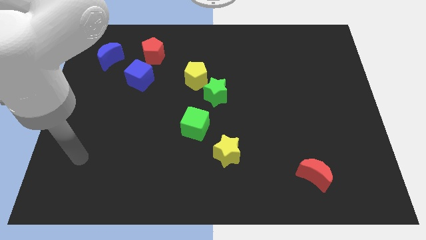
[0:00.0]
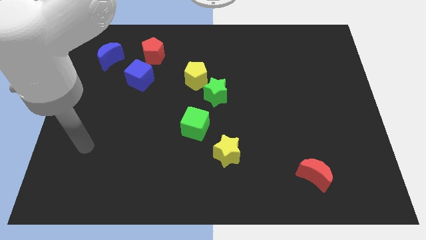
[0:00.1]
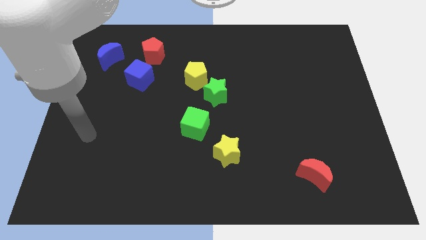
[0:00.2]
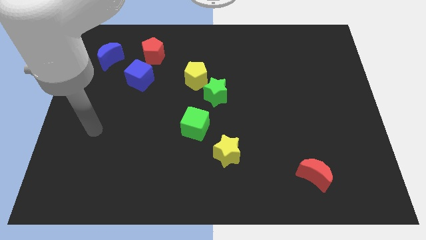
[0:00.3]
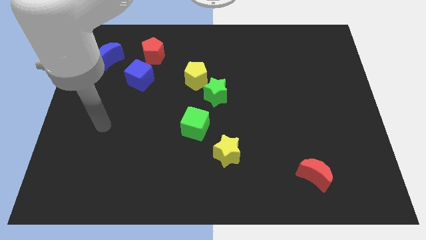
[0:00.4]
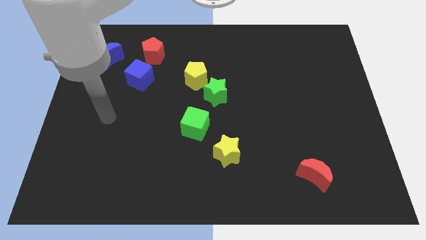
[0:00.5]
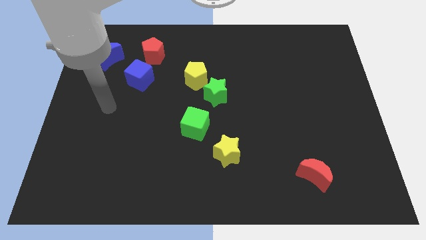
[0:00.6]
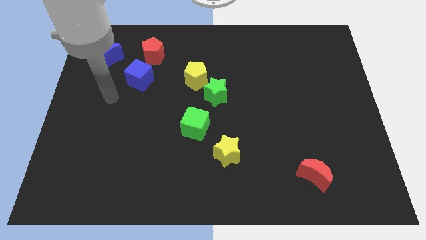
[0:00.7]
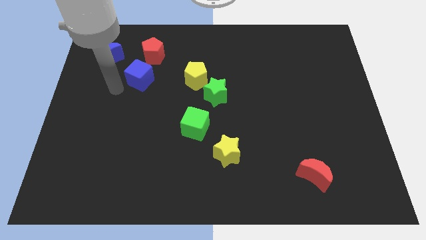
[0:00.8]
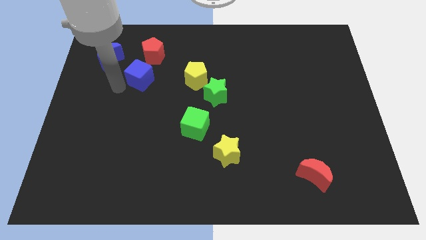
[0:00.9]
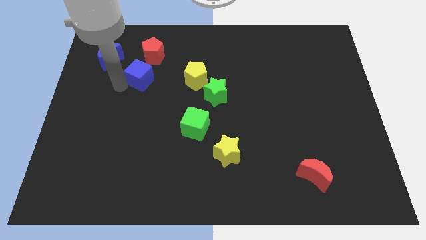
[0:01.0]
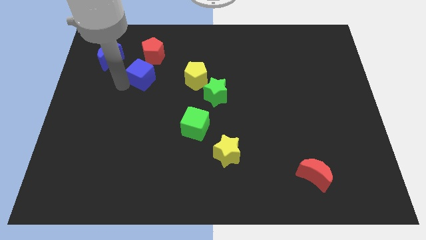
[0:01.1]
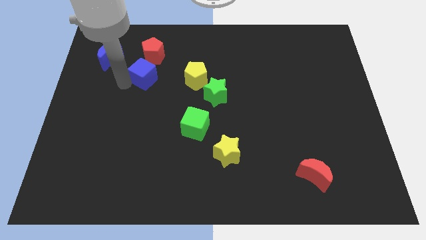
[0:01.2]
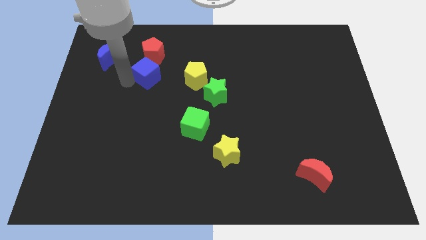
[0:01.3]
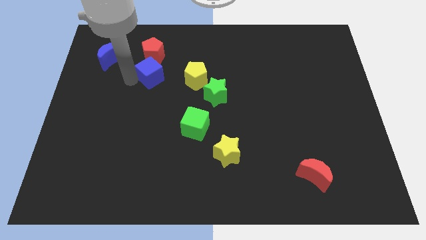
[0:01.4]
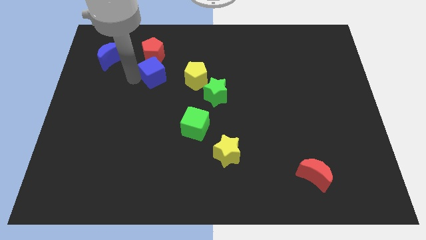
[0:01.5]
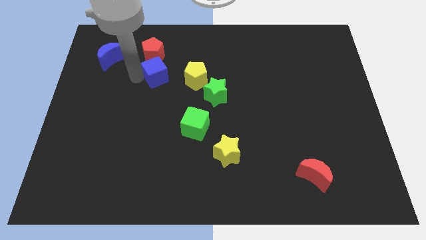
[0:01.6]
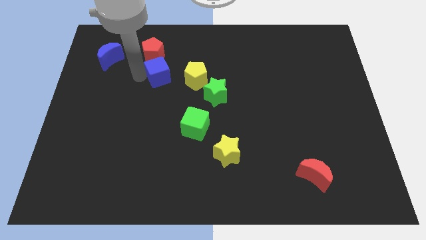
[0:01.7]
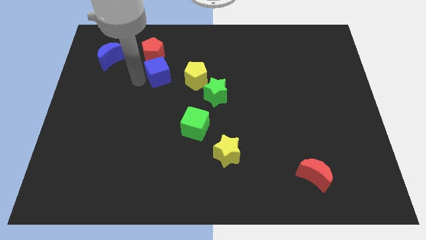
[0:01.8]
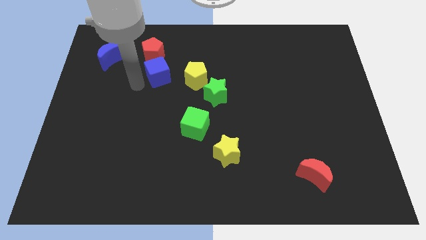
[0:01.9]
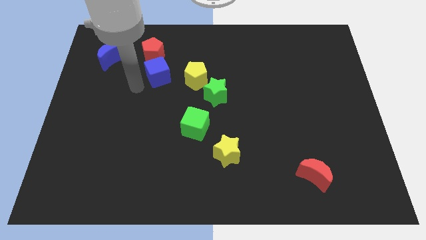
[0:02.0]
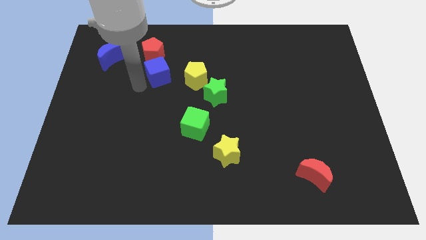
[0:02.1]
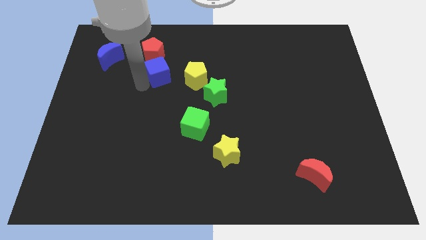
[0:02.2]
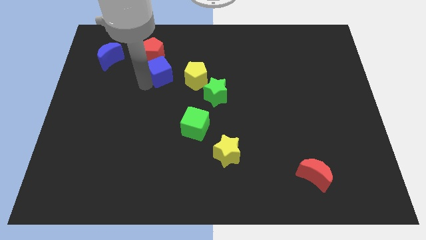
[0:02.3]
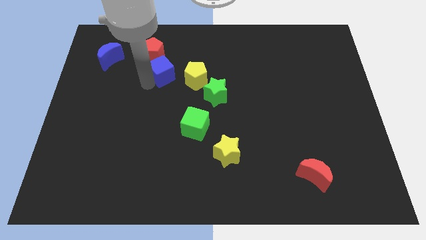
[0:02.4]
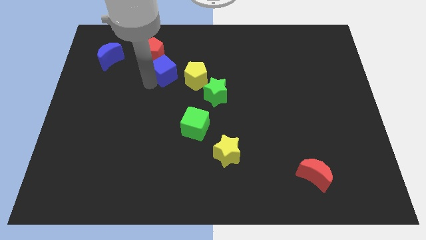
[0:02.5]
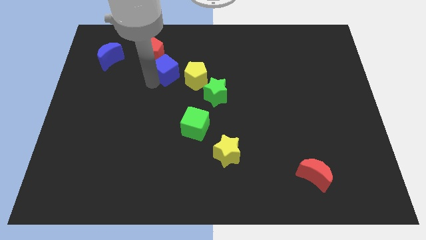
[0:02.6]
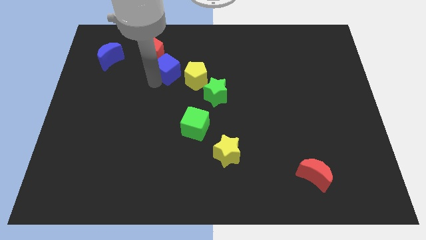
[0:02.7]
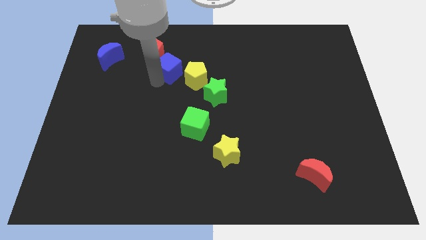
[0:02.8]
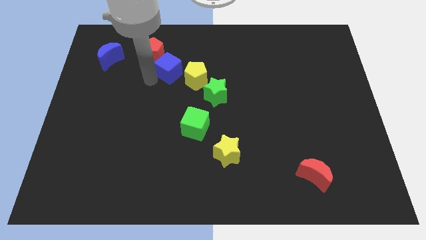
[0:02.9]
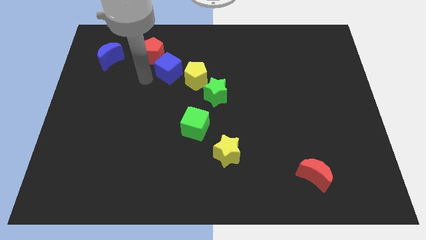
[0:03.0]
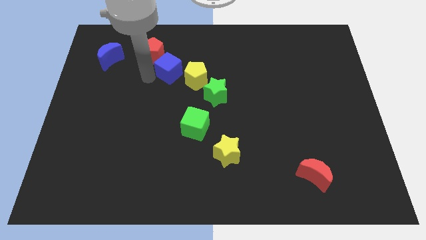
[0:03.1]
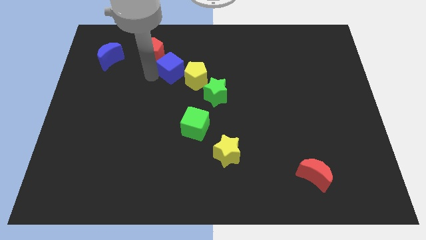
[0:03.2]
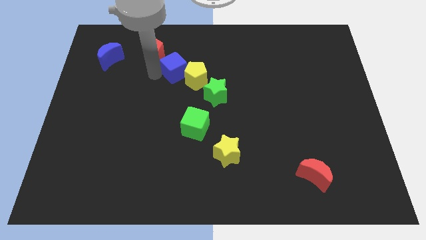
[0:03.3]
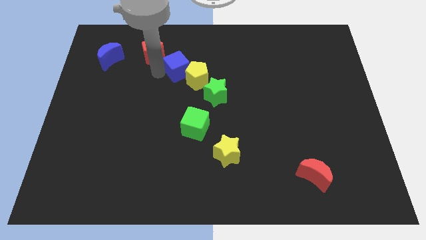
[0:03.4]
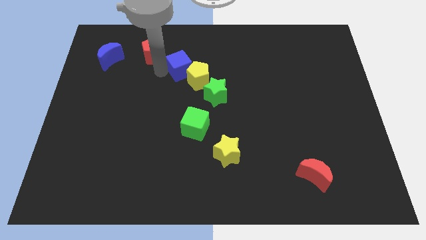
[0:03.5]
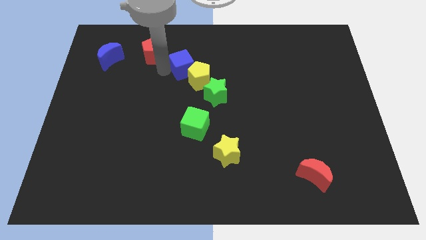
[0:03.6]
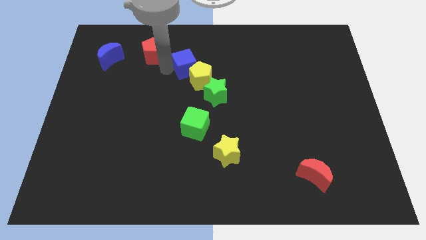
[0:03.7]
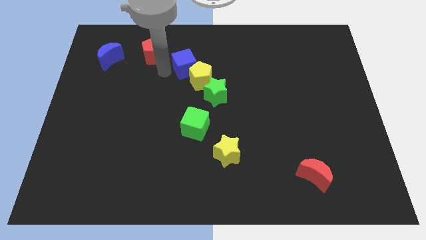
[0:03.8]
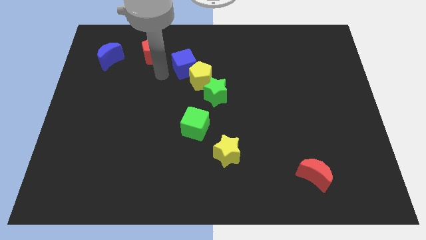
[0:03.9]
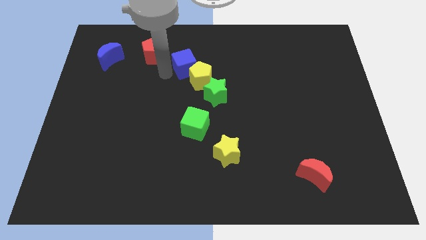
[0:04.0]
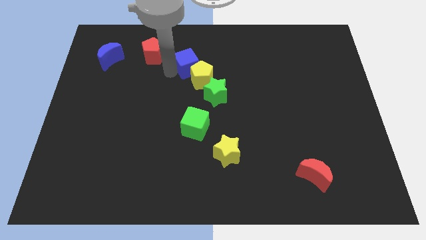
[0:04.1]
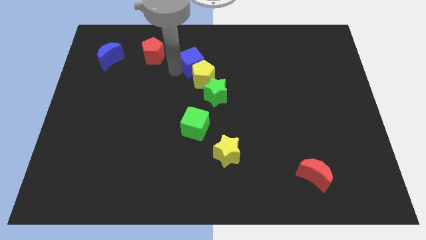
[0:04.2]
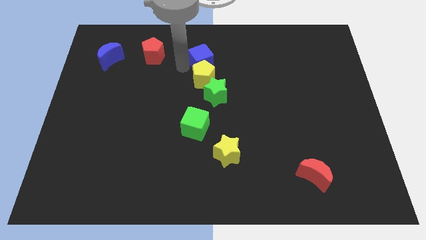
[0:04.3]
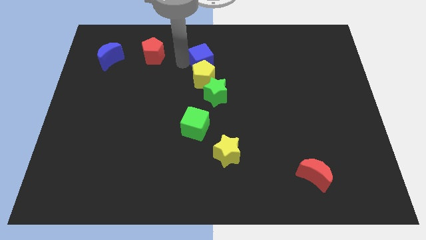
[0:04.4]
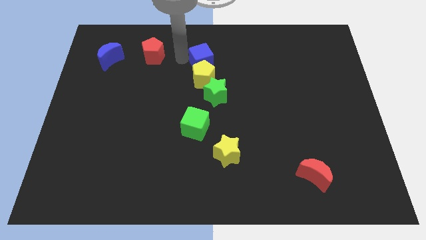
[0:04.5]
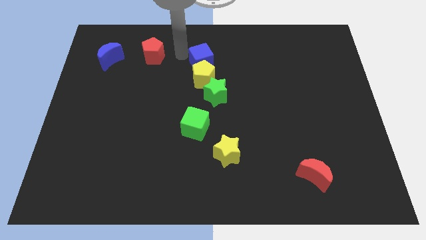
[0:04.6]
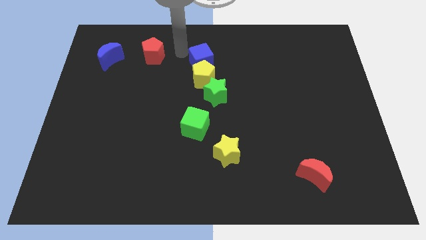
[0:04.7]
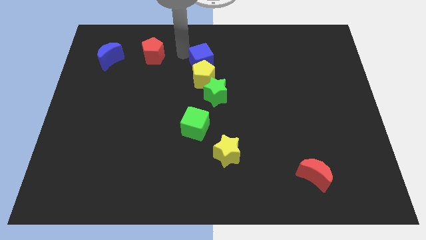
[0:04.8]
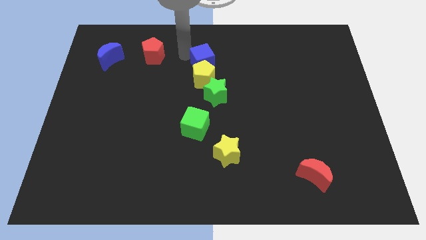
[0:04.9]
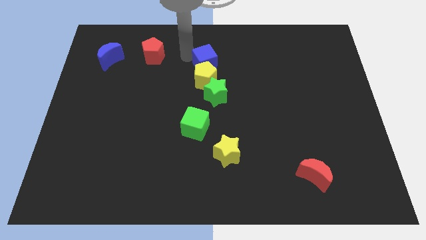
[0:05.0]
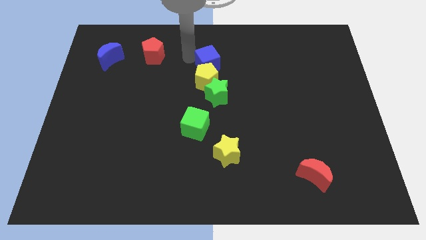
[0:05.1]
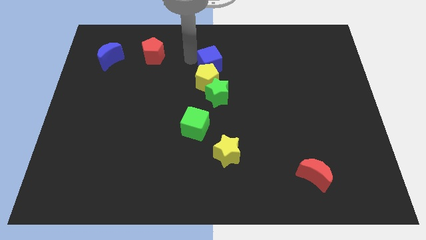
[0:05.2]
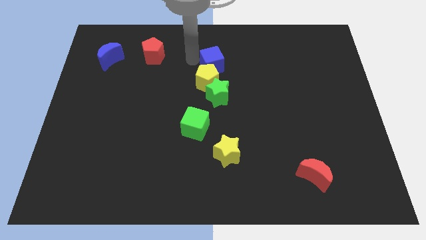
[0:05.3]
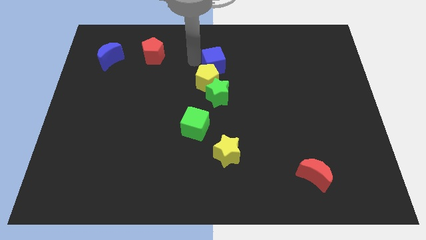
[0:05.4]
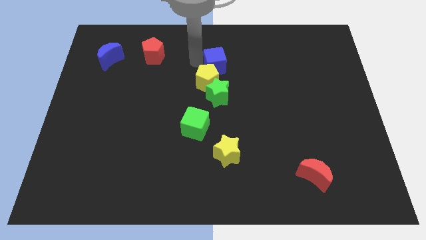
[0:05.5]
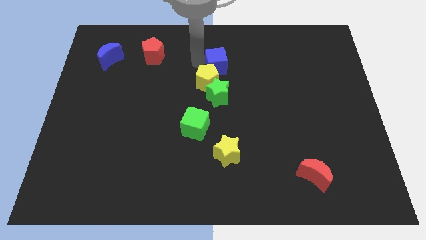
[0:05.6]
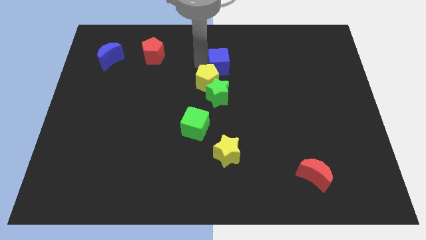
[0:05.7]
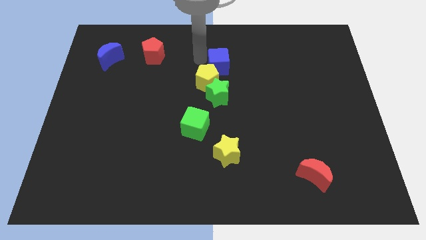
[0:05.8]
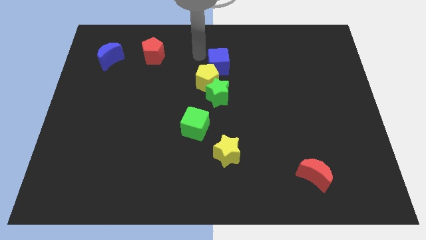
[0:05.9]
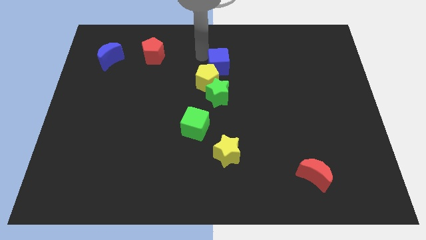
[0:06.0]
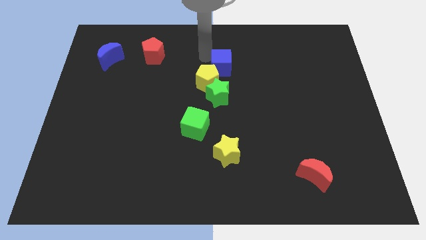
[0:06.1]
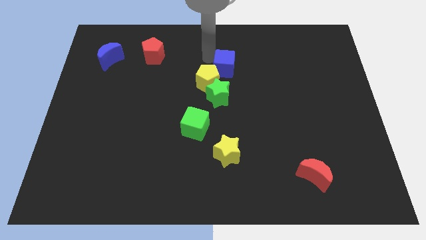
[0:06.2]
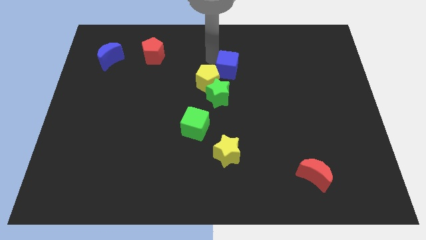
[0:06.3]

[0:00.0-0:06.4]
slide the blue cube just right of the yellow pentagon
